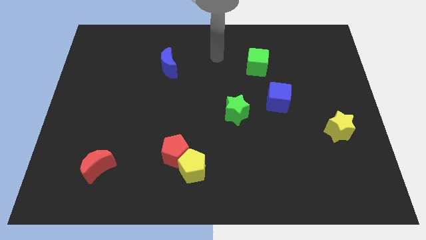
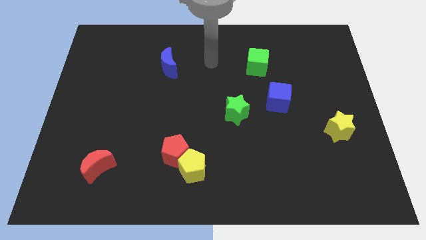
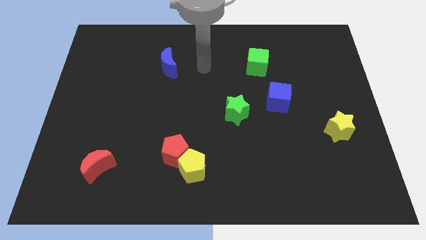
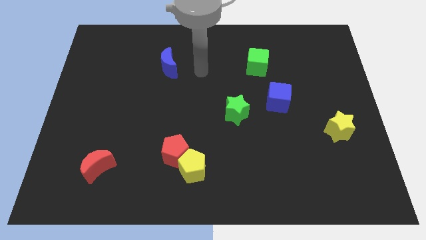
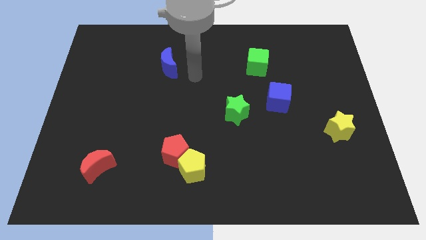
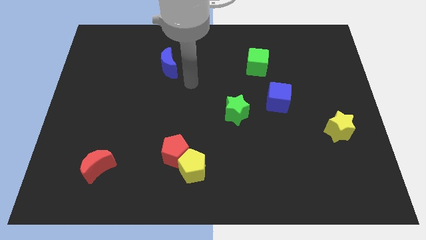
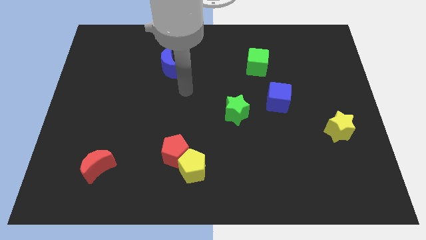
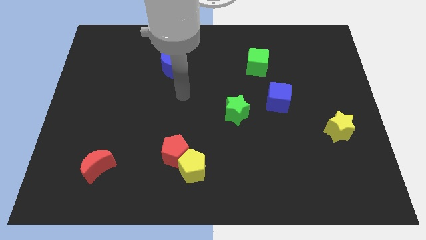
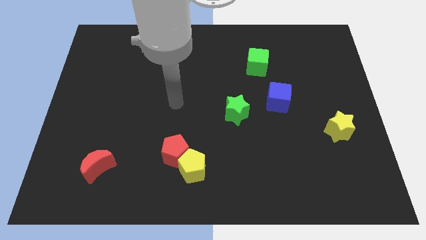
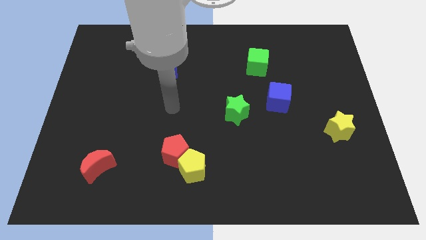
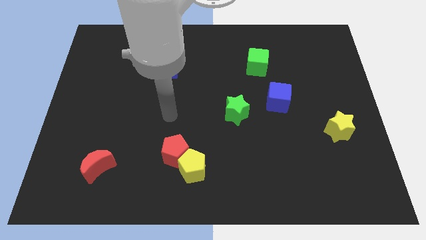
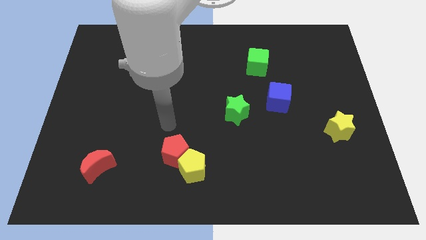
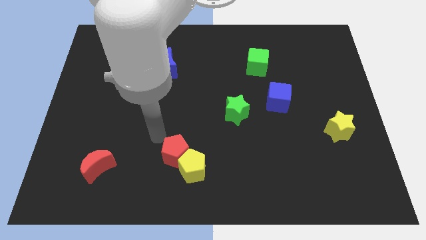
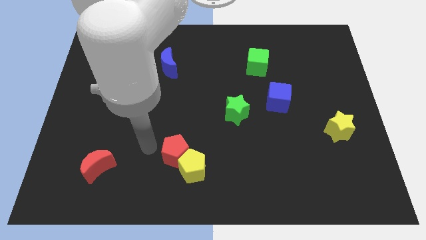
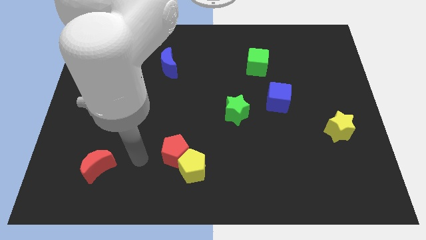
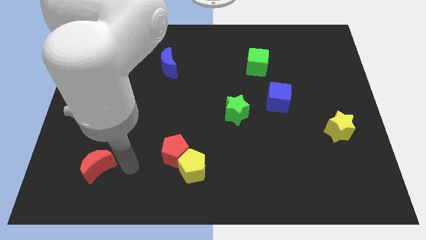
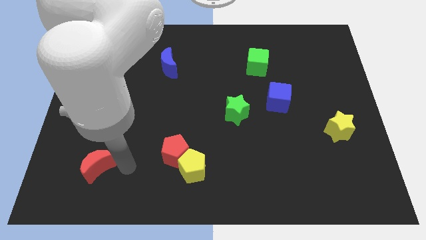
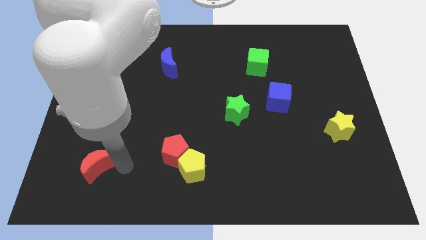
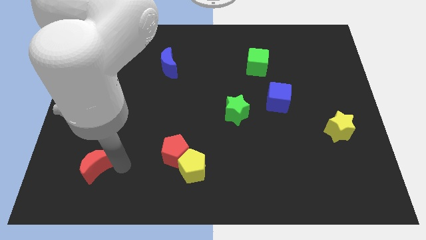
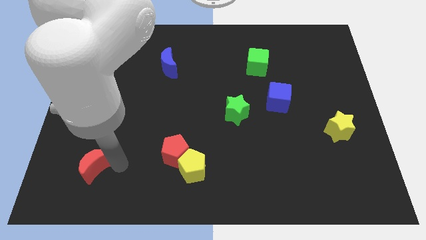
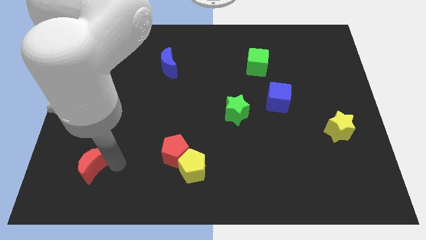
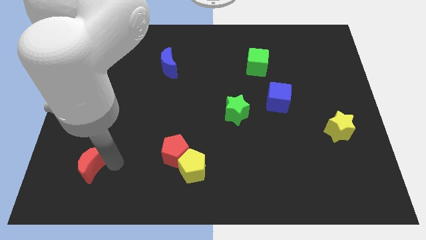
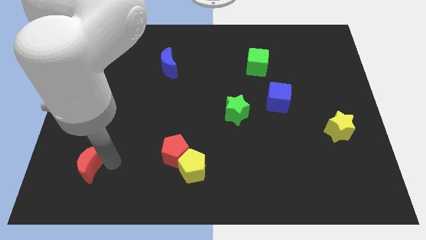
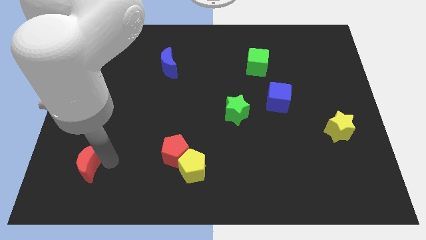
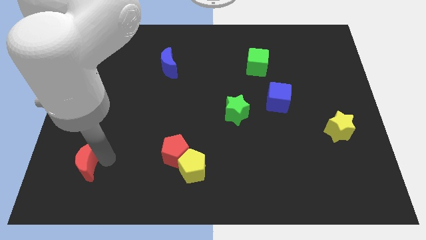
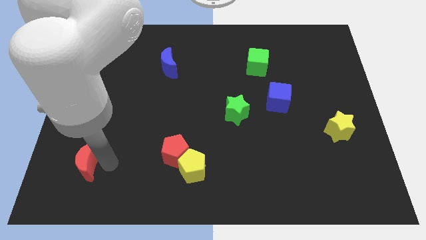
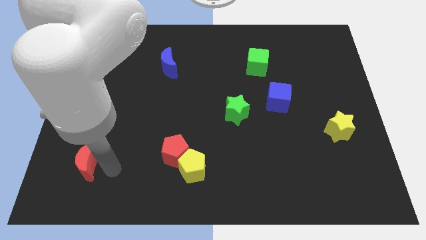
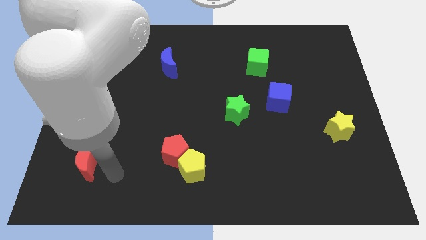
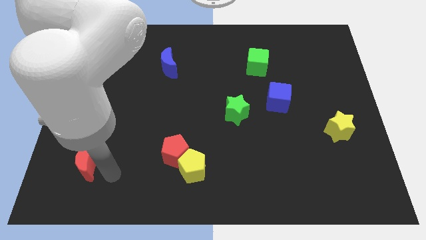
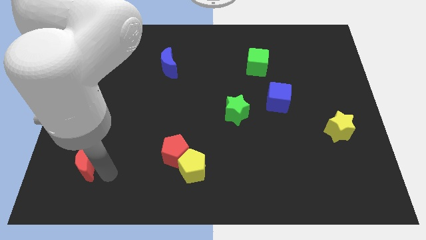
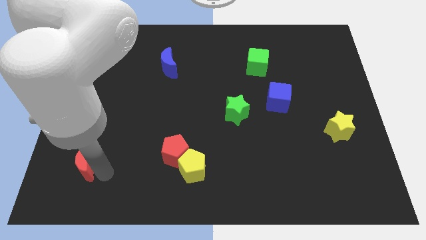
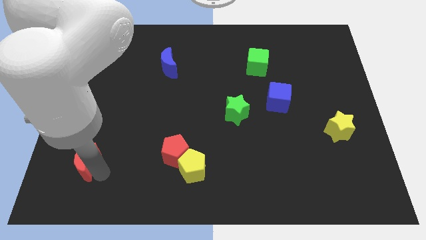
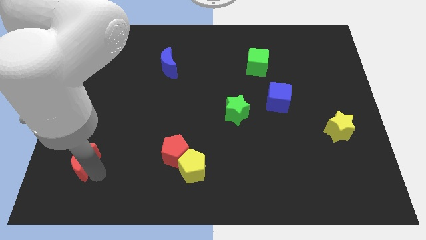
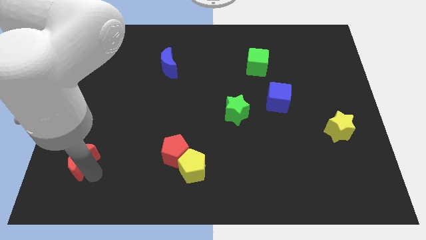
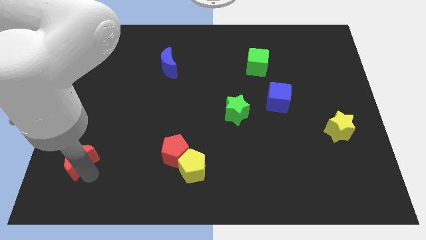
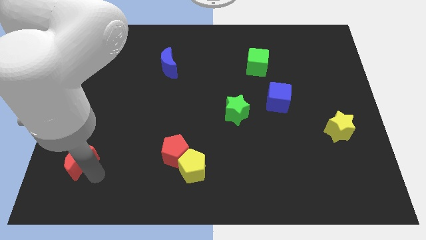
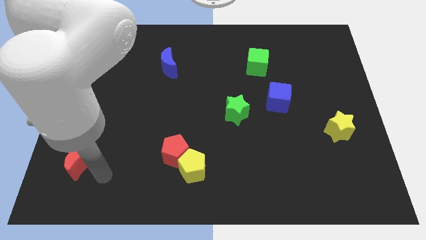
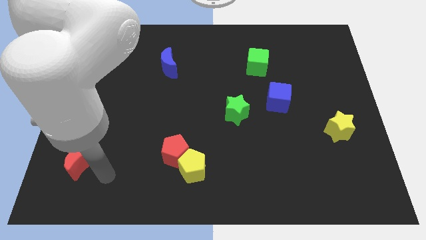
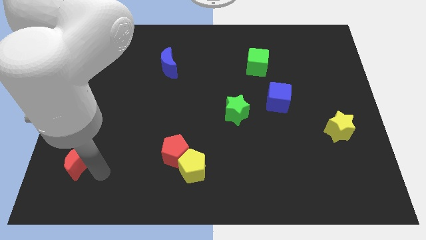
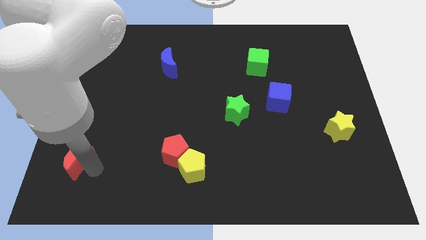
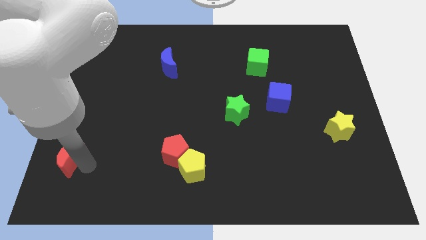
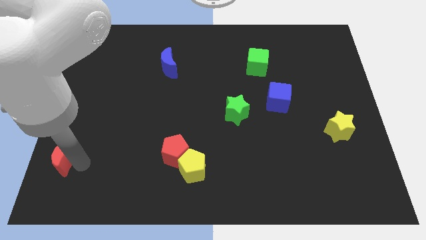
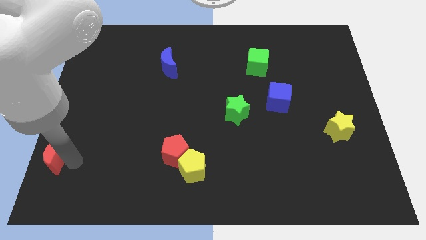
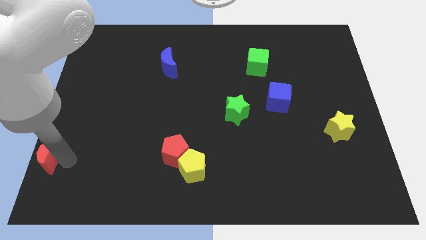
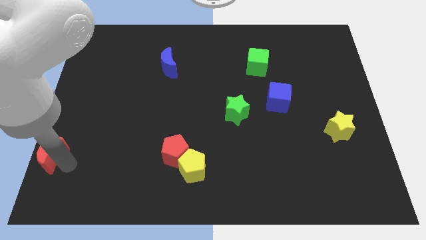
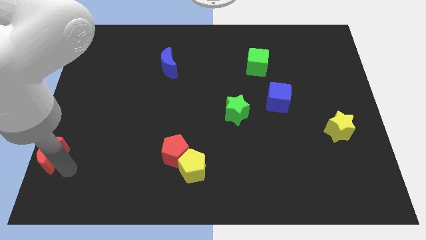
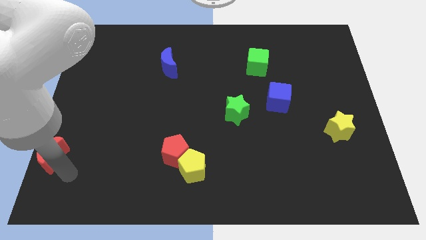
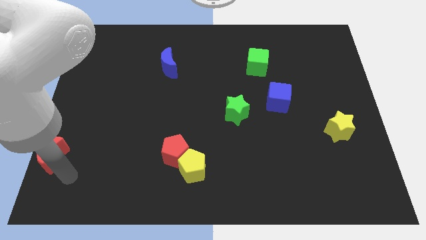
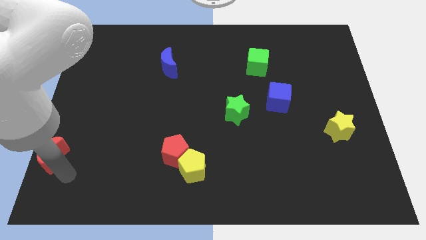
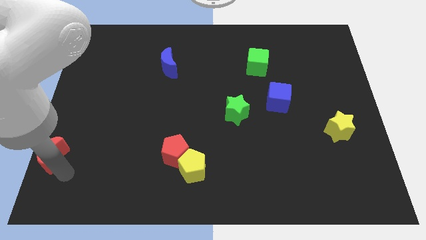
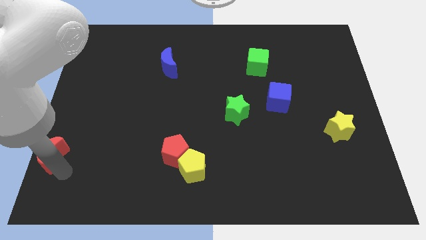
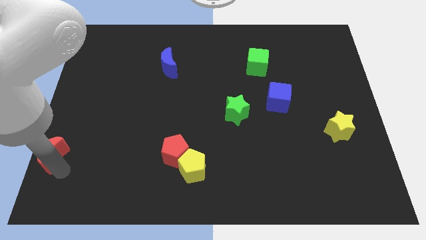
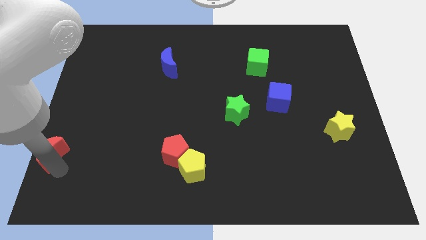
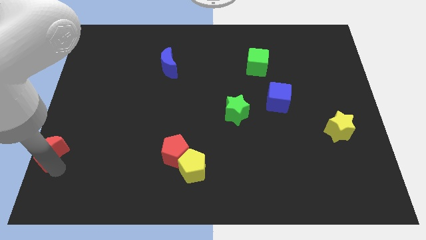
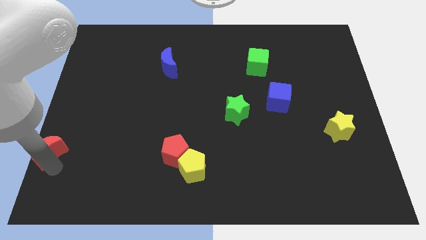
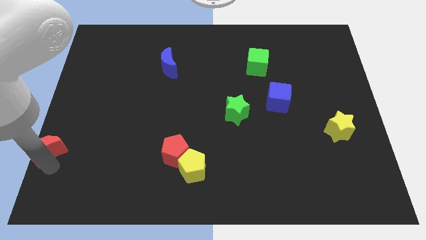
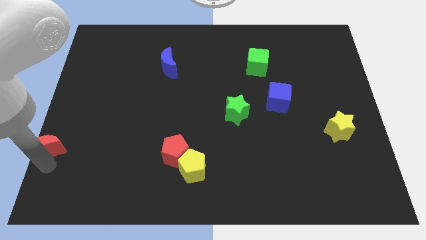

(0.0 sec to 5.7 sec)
move the red moon to the left side of the board
